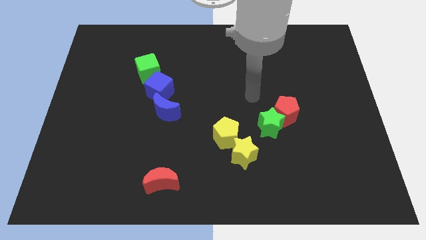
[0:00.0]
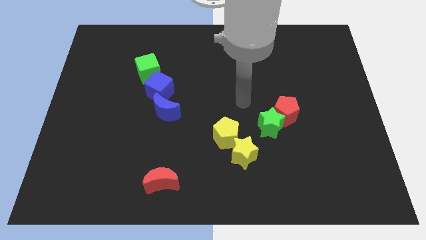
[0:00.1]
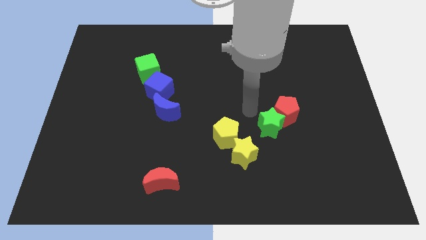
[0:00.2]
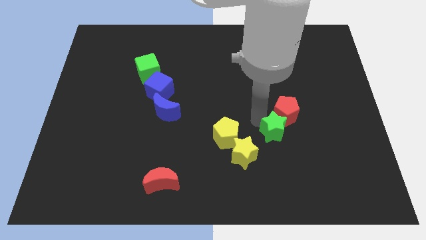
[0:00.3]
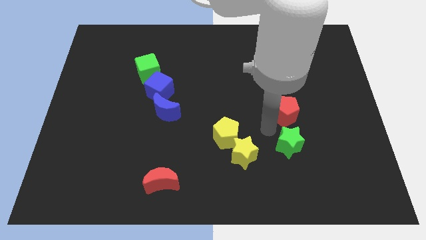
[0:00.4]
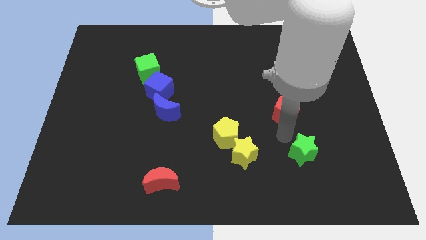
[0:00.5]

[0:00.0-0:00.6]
pull the red pentagon apart from the green star

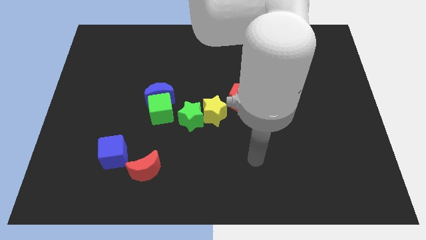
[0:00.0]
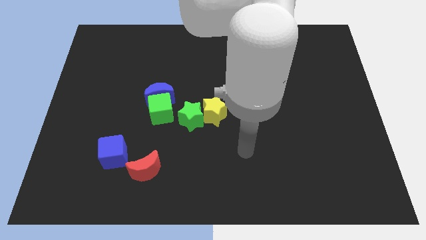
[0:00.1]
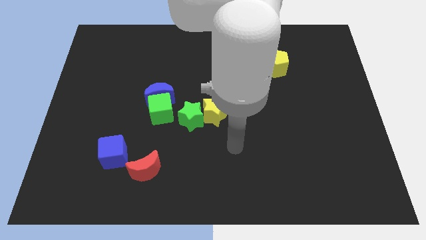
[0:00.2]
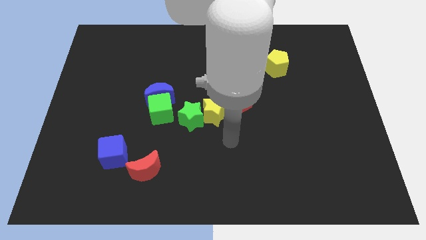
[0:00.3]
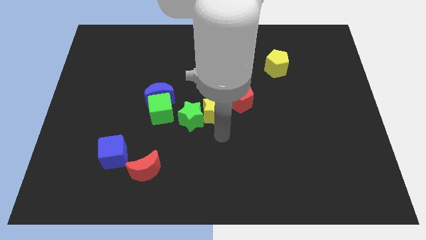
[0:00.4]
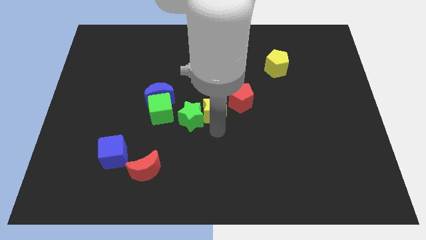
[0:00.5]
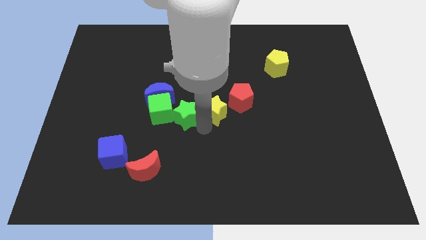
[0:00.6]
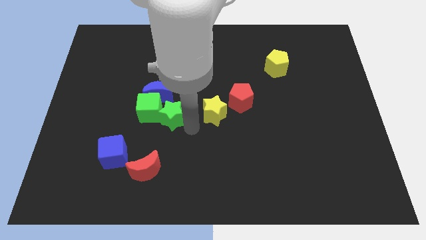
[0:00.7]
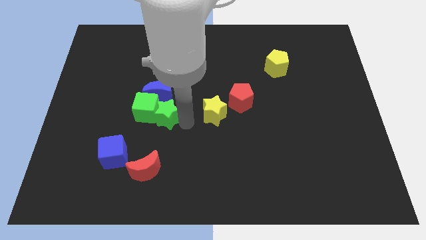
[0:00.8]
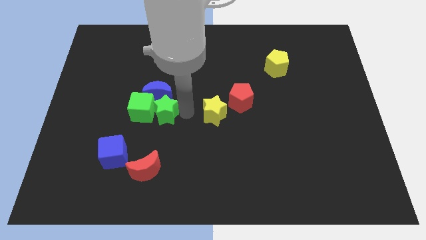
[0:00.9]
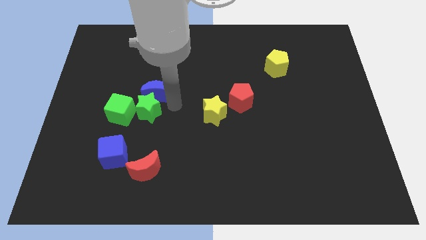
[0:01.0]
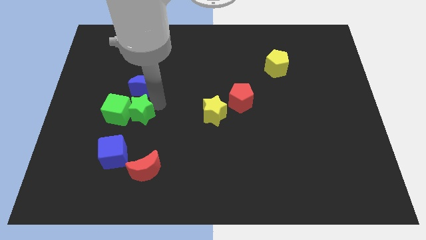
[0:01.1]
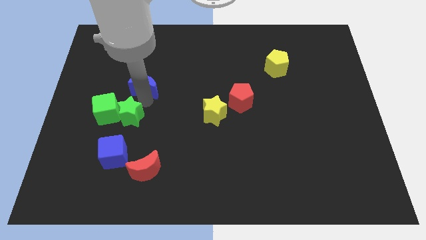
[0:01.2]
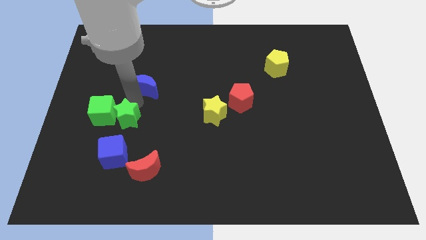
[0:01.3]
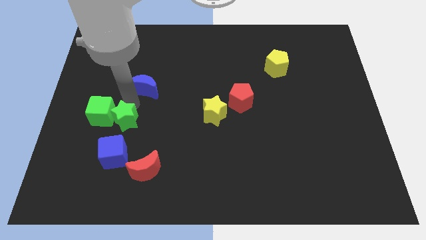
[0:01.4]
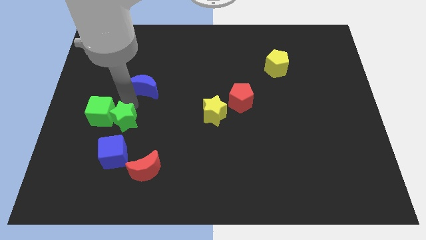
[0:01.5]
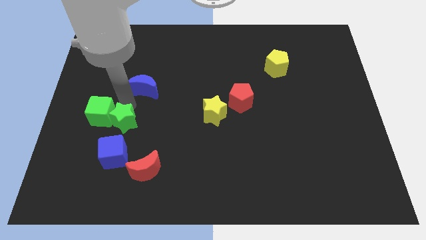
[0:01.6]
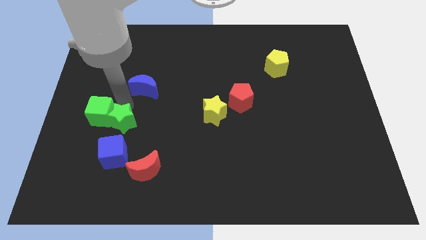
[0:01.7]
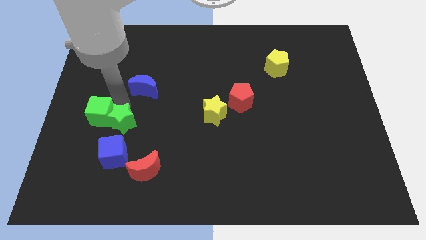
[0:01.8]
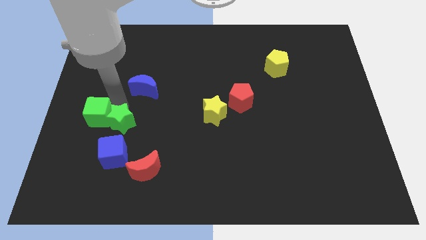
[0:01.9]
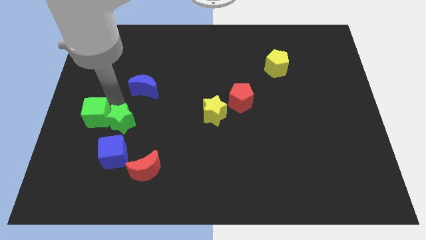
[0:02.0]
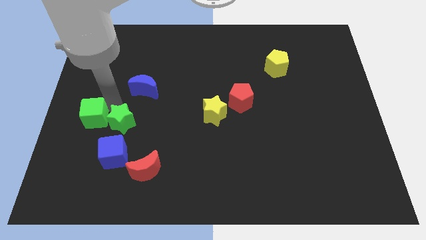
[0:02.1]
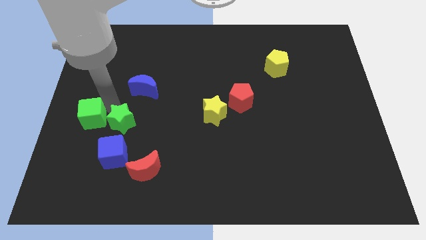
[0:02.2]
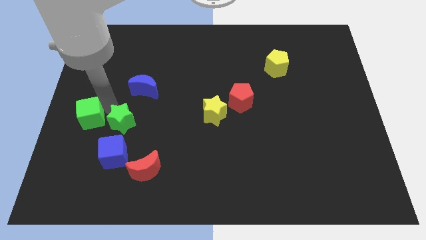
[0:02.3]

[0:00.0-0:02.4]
move the green cube away from the blue moon and green star

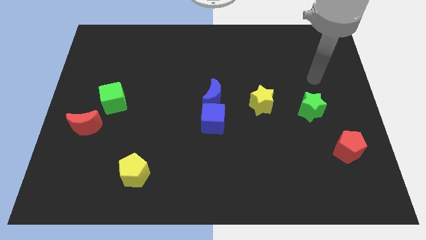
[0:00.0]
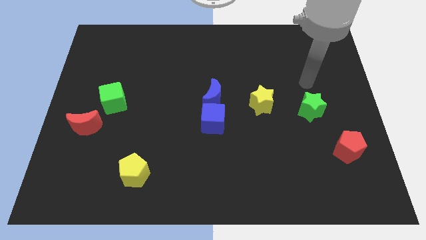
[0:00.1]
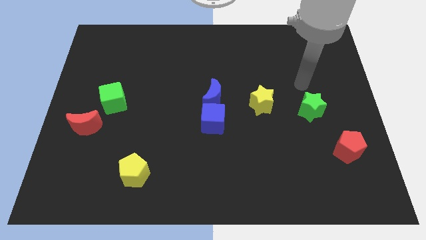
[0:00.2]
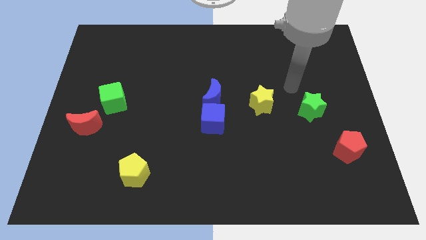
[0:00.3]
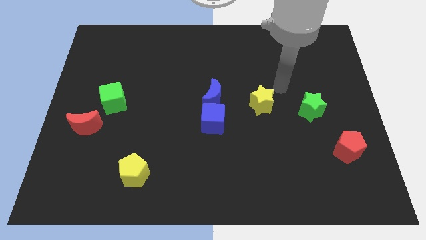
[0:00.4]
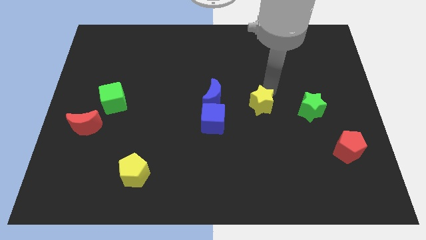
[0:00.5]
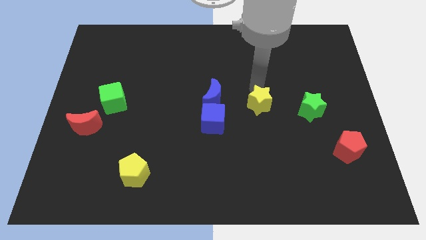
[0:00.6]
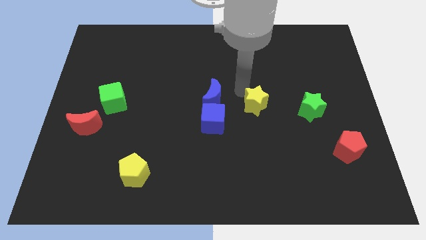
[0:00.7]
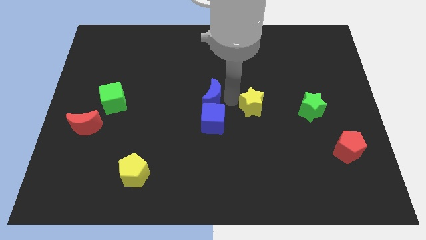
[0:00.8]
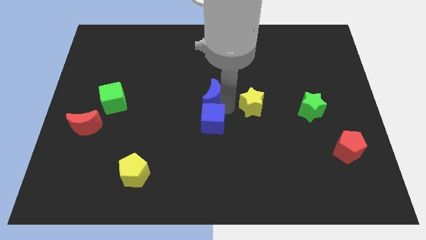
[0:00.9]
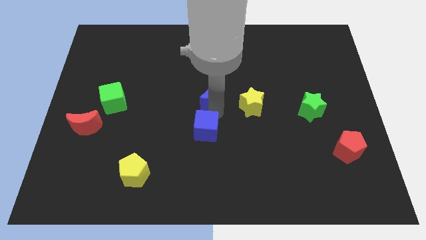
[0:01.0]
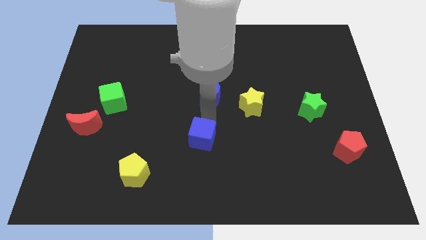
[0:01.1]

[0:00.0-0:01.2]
pull the blue moon apart from the blue cube

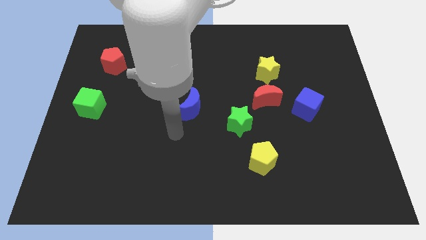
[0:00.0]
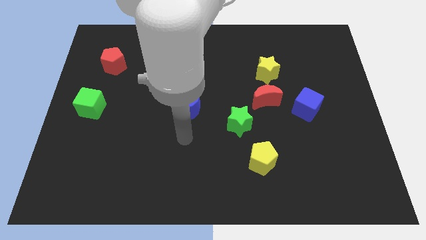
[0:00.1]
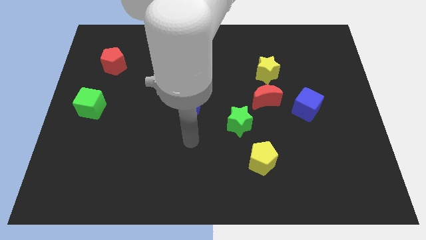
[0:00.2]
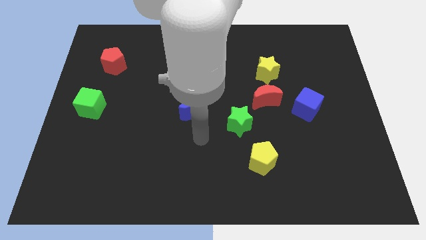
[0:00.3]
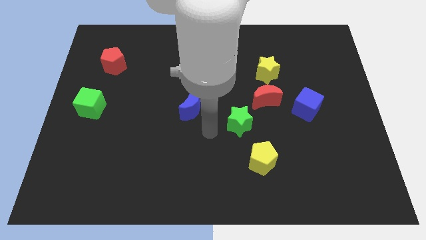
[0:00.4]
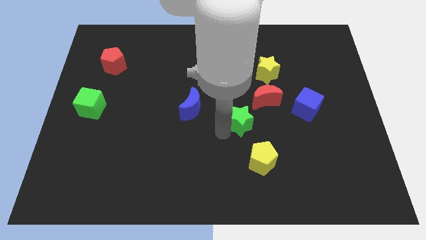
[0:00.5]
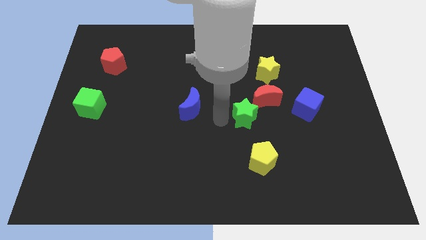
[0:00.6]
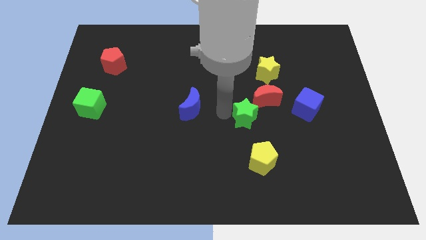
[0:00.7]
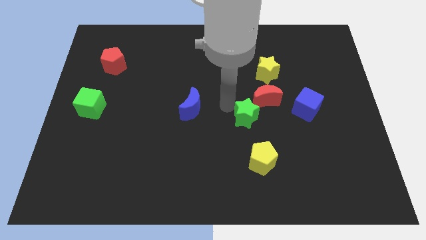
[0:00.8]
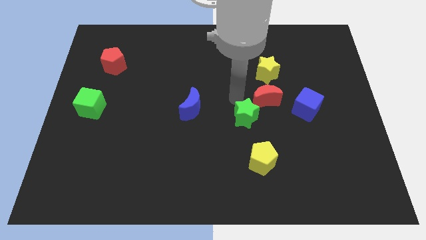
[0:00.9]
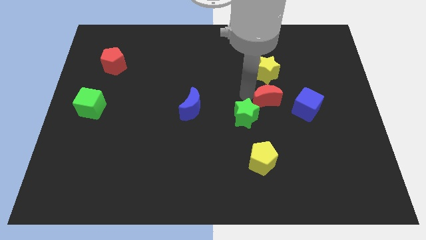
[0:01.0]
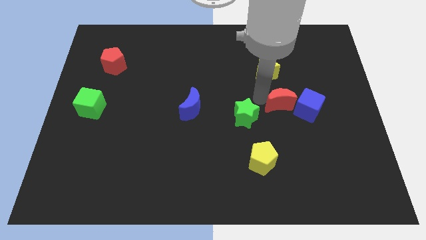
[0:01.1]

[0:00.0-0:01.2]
pull the yellow star apart from the red moon

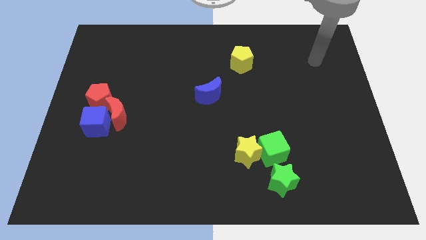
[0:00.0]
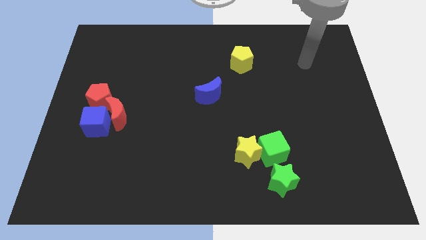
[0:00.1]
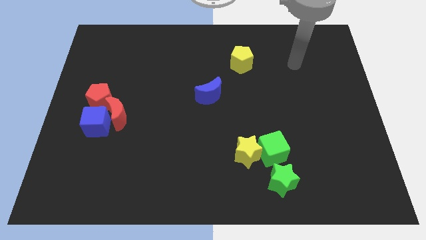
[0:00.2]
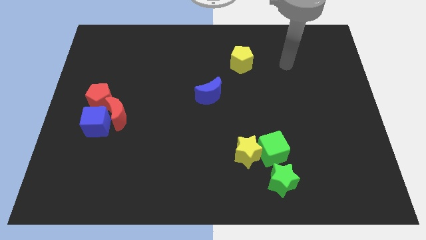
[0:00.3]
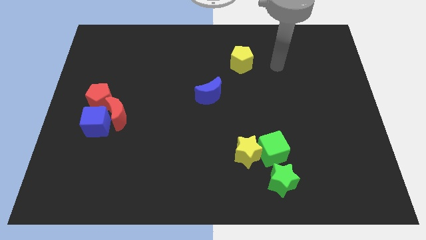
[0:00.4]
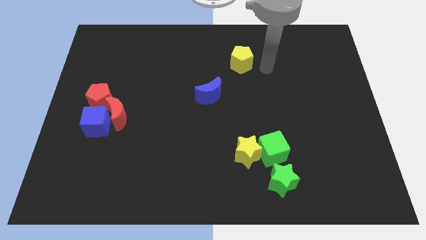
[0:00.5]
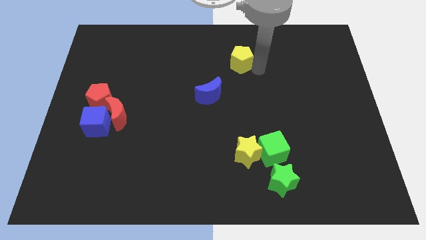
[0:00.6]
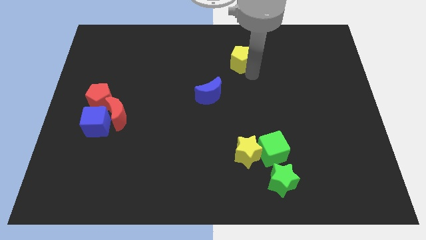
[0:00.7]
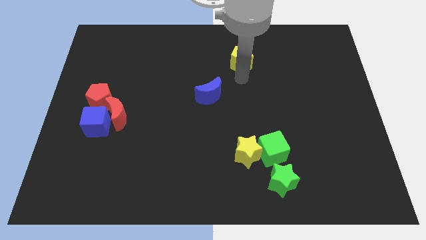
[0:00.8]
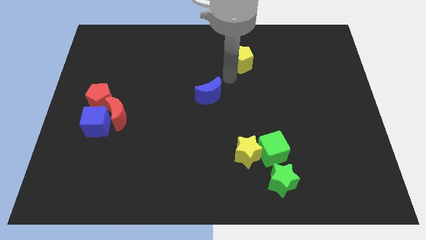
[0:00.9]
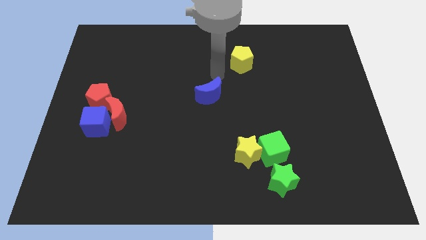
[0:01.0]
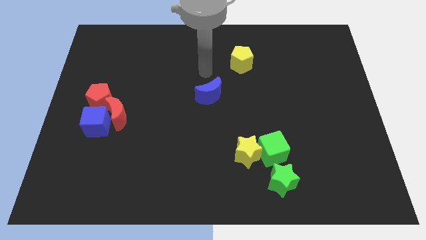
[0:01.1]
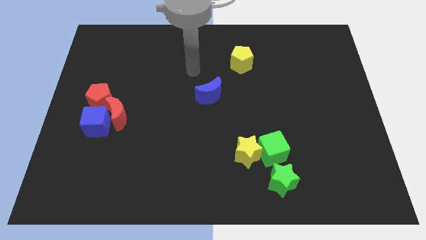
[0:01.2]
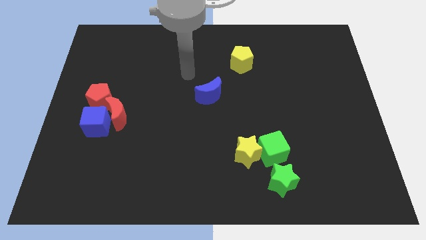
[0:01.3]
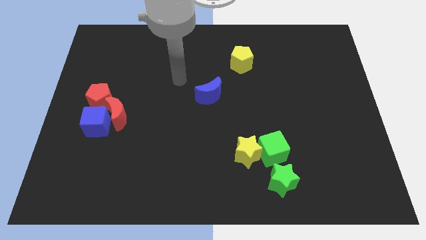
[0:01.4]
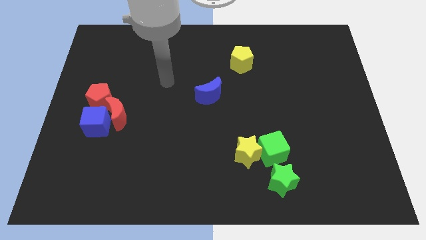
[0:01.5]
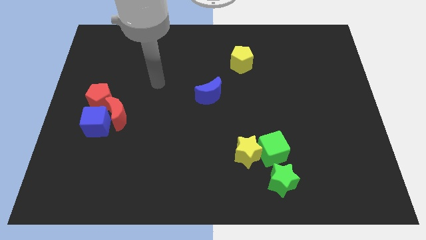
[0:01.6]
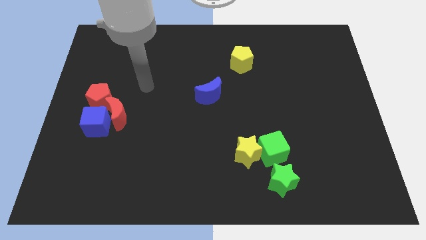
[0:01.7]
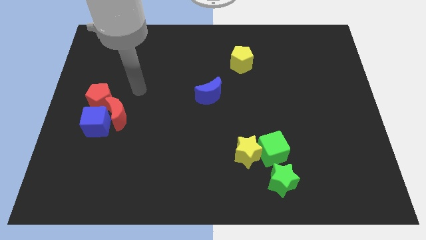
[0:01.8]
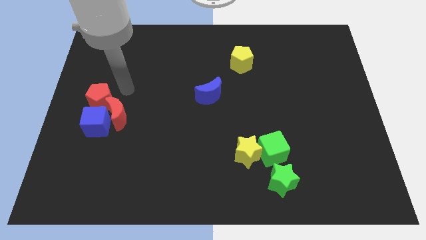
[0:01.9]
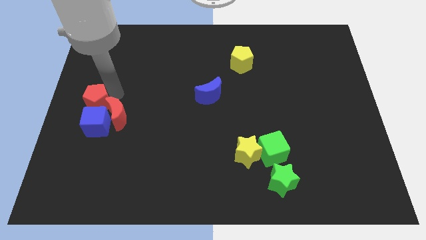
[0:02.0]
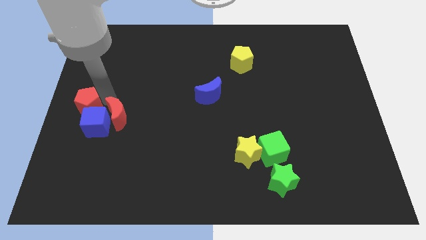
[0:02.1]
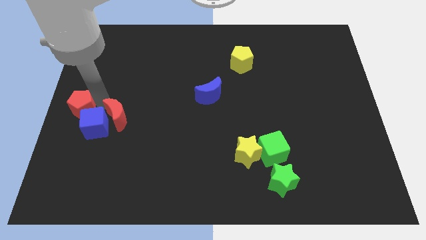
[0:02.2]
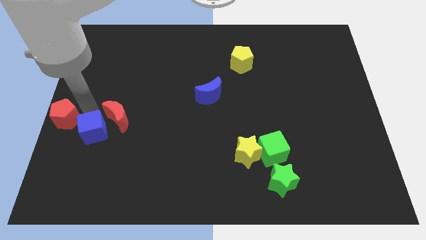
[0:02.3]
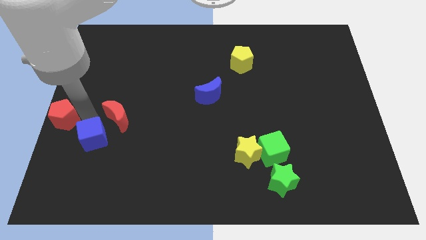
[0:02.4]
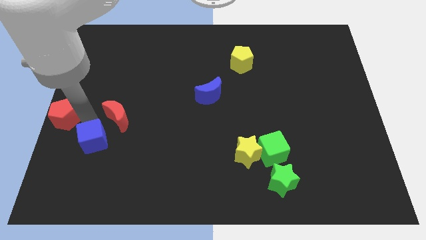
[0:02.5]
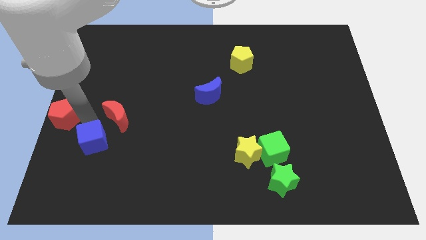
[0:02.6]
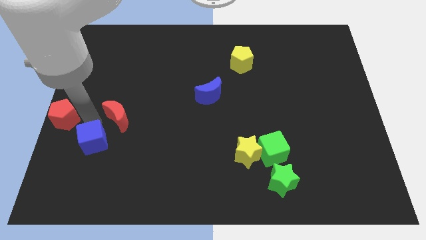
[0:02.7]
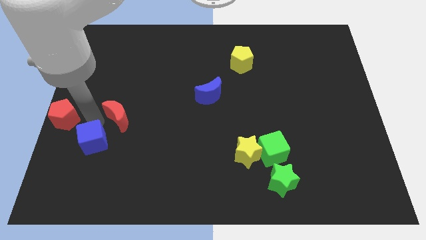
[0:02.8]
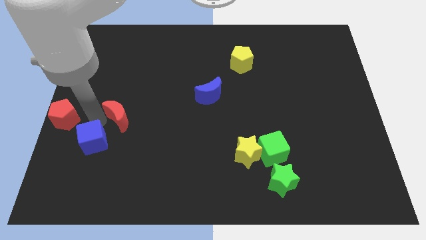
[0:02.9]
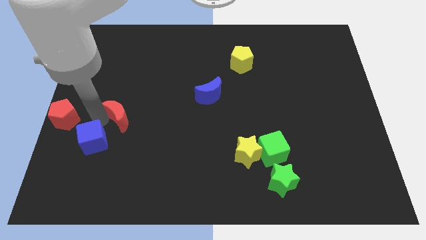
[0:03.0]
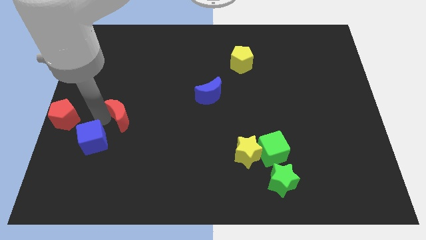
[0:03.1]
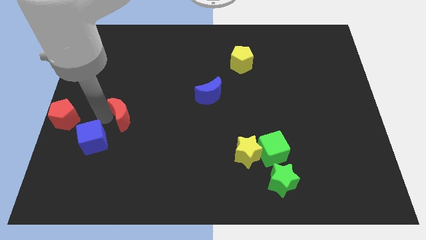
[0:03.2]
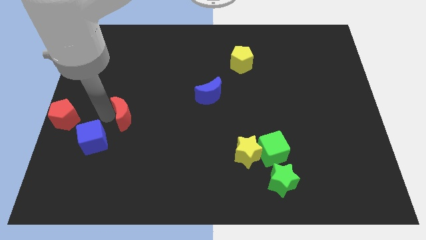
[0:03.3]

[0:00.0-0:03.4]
separate the red moon from the blue cube and red pentagon

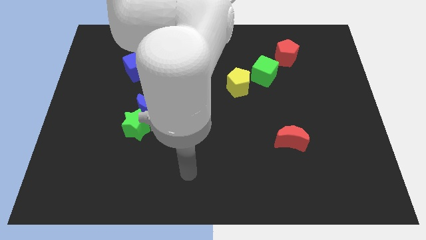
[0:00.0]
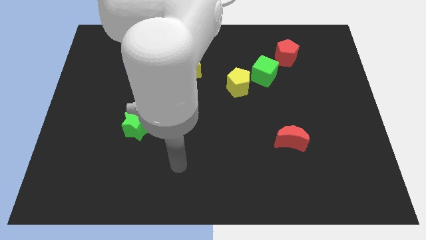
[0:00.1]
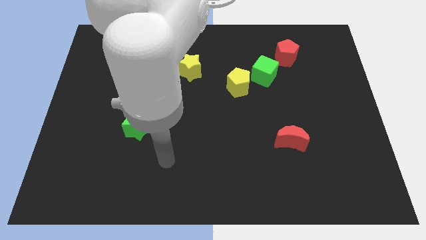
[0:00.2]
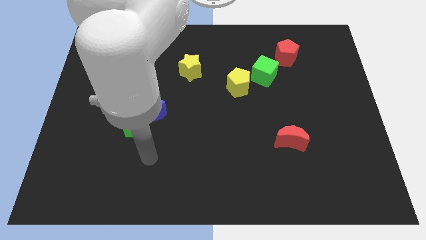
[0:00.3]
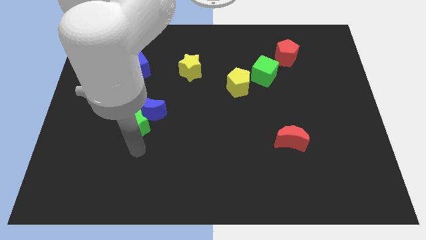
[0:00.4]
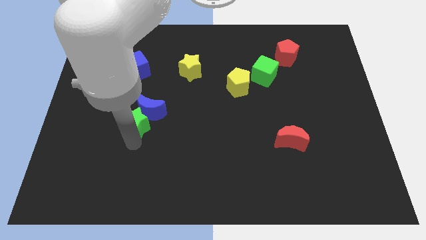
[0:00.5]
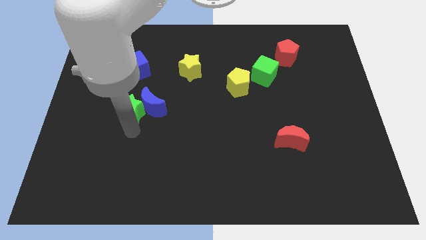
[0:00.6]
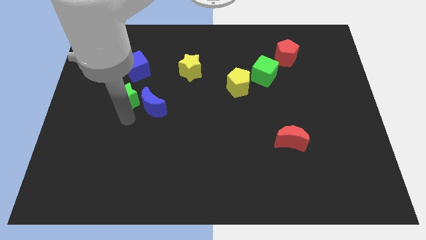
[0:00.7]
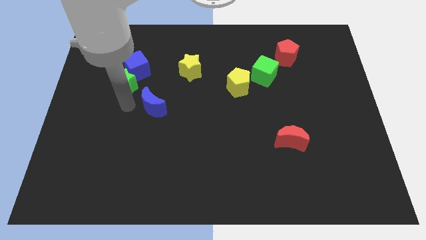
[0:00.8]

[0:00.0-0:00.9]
move the blue moon away from the green star
